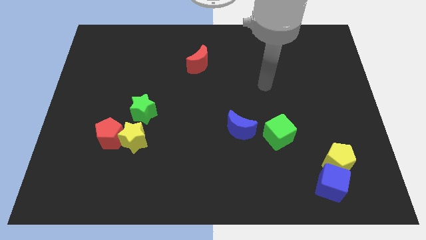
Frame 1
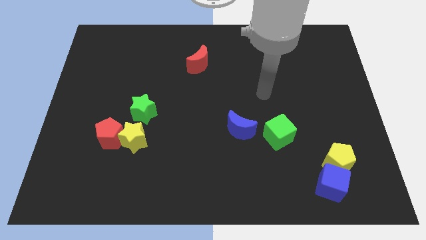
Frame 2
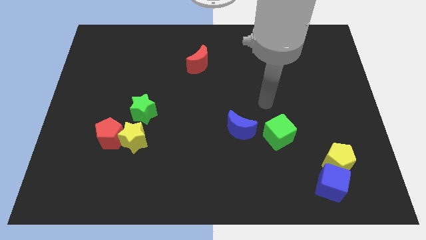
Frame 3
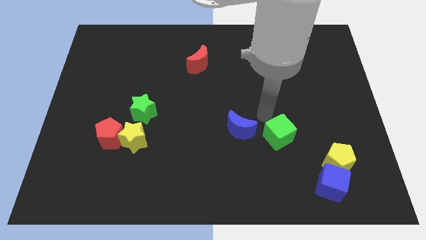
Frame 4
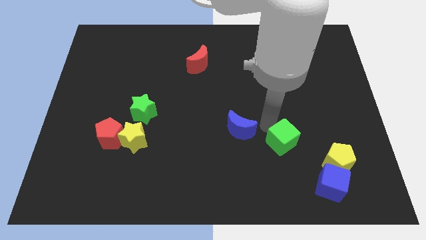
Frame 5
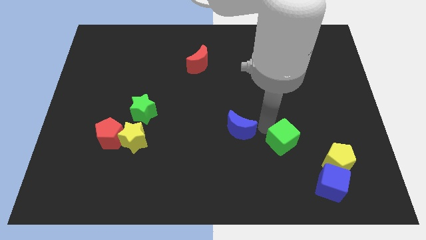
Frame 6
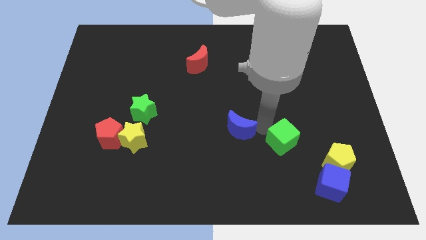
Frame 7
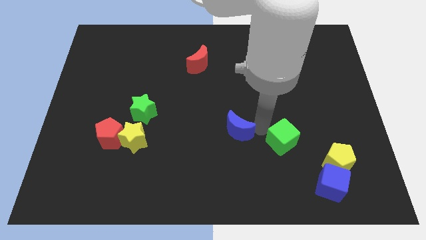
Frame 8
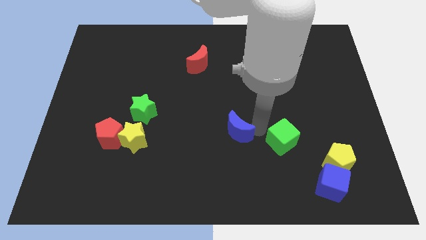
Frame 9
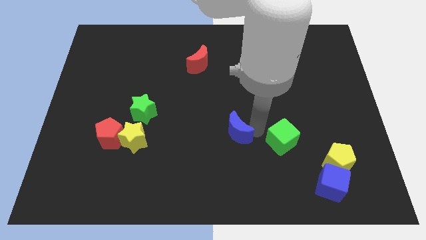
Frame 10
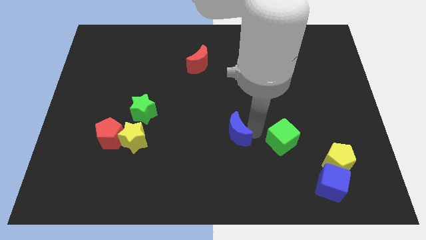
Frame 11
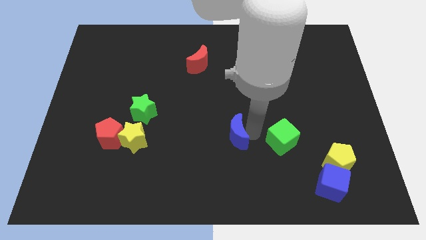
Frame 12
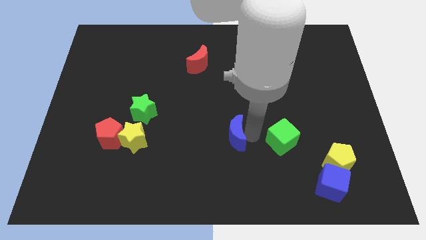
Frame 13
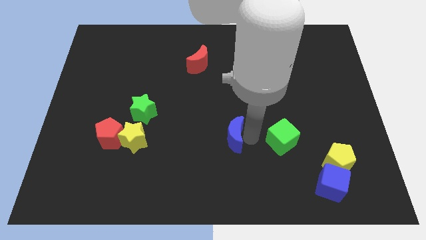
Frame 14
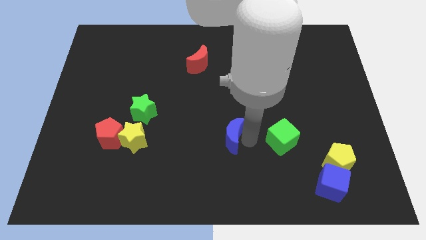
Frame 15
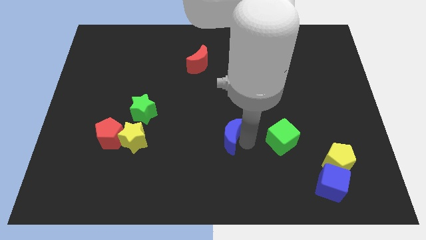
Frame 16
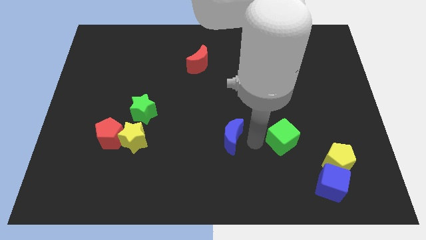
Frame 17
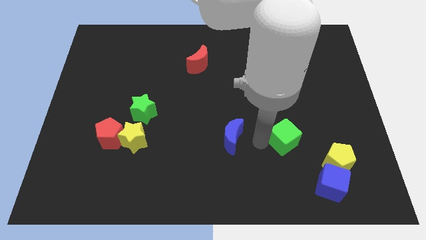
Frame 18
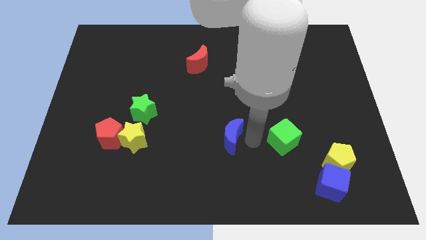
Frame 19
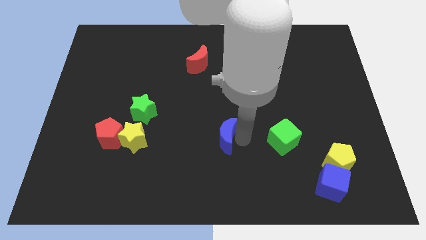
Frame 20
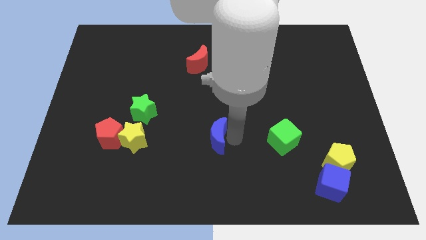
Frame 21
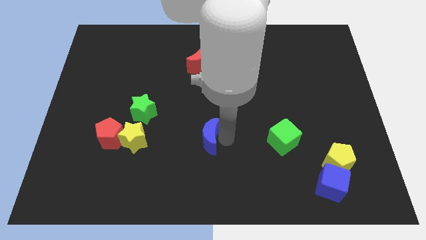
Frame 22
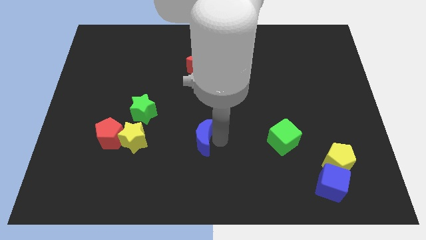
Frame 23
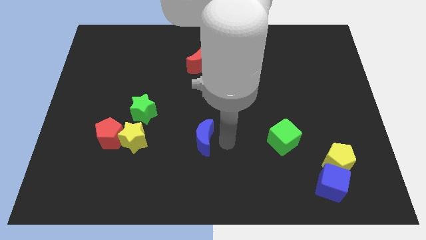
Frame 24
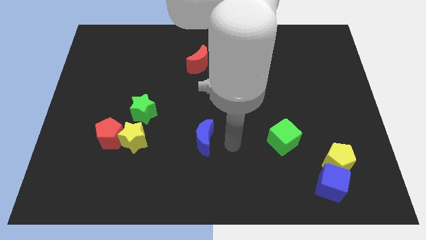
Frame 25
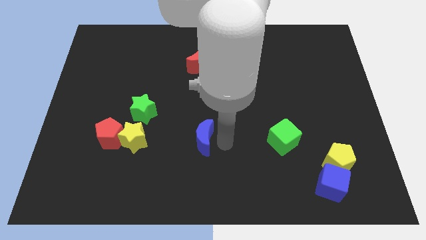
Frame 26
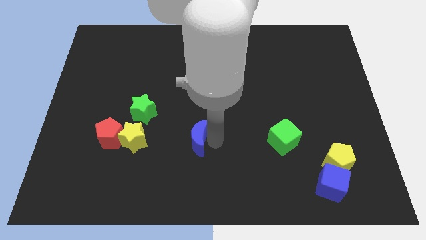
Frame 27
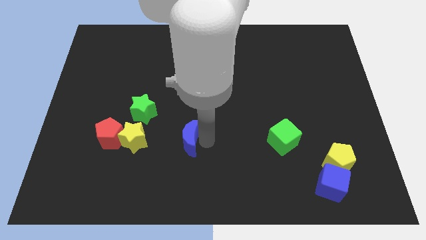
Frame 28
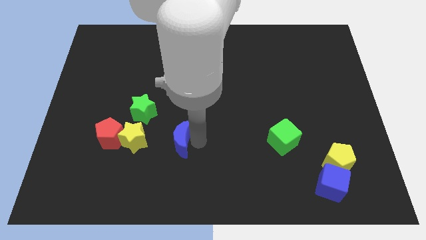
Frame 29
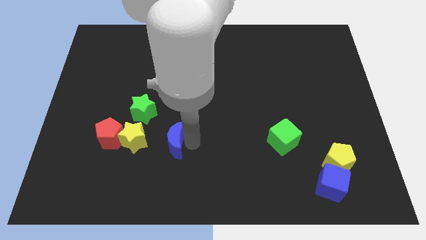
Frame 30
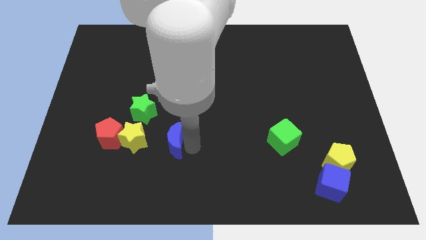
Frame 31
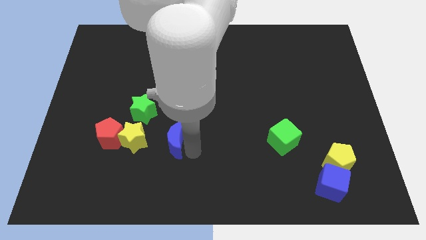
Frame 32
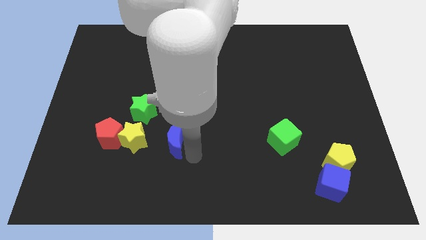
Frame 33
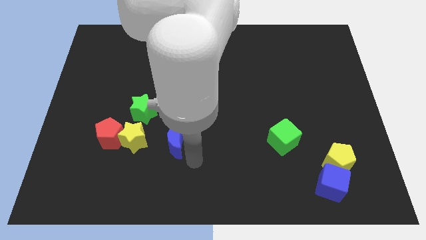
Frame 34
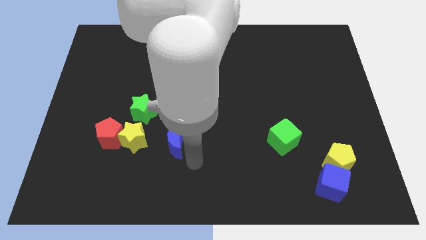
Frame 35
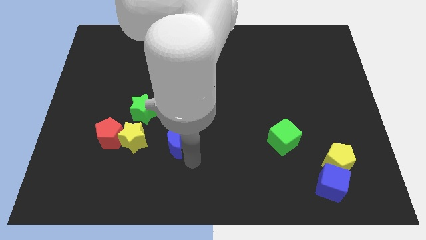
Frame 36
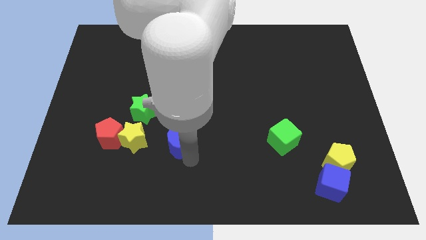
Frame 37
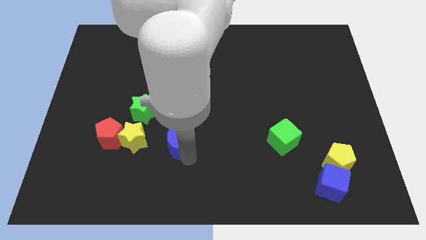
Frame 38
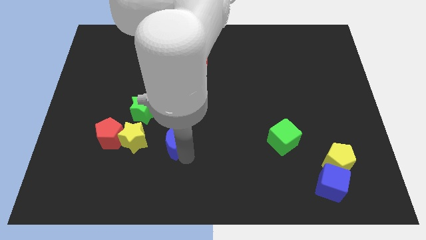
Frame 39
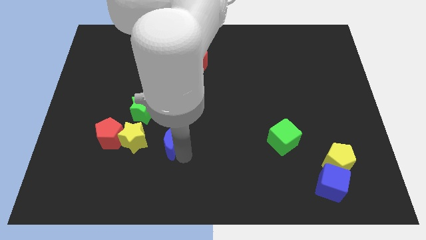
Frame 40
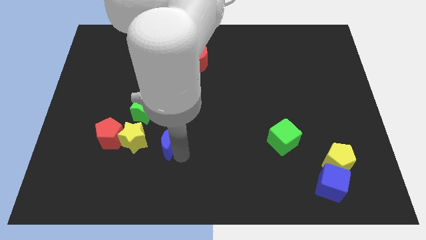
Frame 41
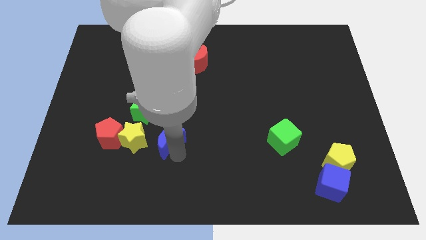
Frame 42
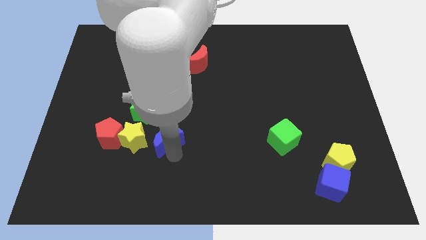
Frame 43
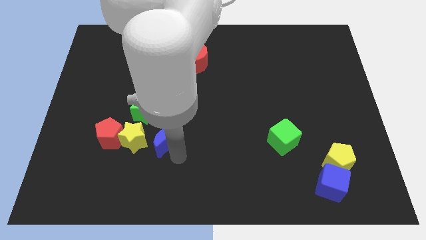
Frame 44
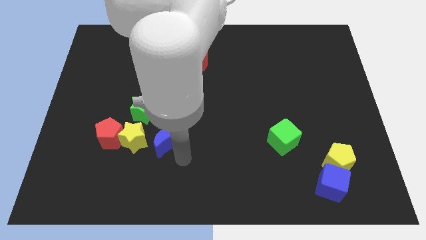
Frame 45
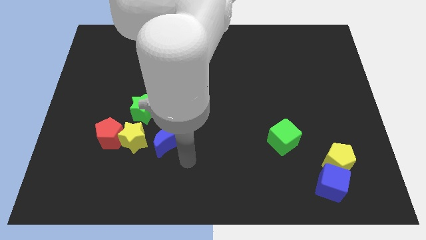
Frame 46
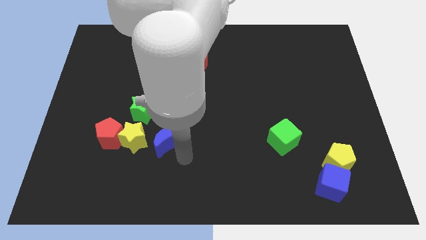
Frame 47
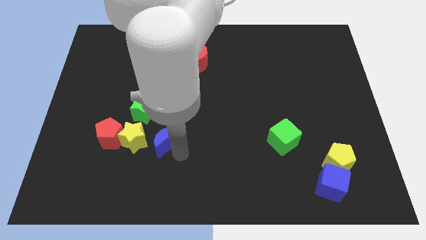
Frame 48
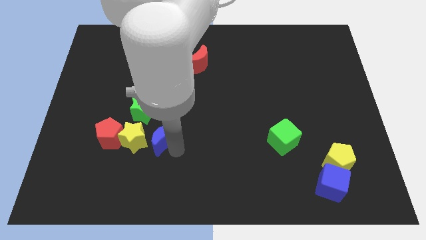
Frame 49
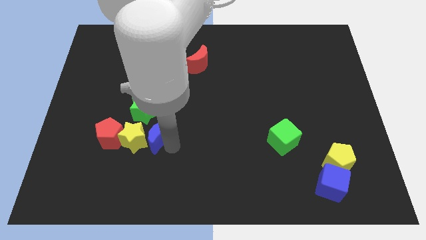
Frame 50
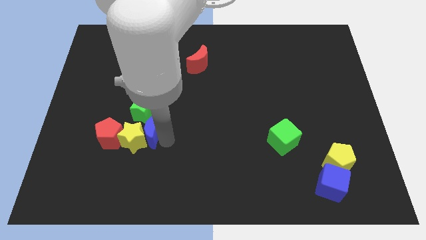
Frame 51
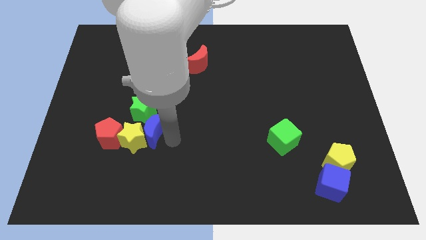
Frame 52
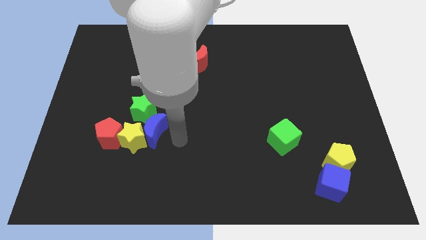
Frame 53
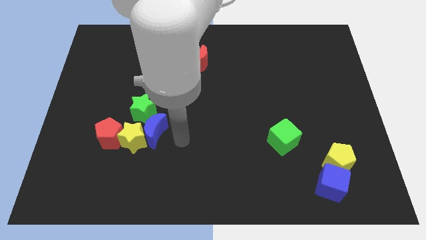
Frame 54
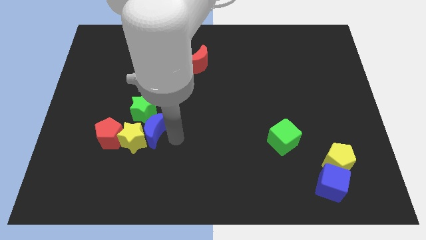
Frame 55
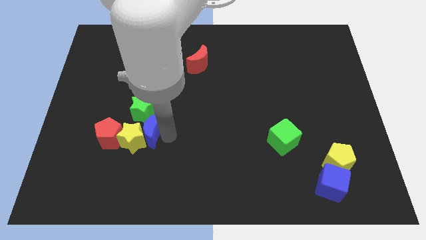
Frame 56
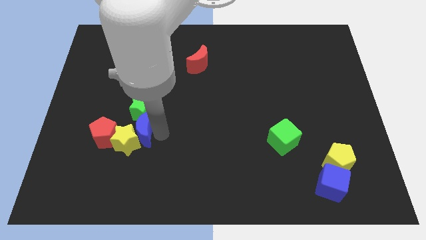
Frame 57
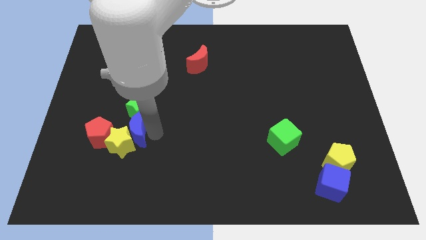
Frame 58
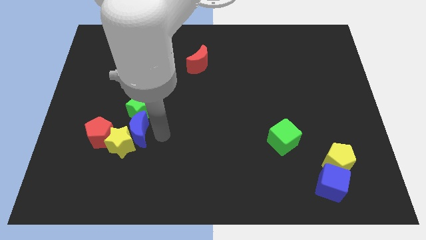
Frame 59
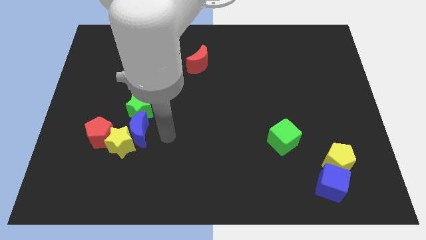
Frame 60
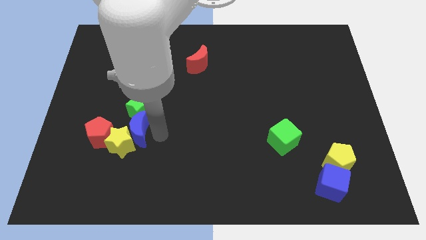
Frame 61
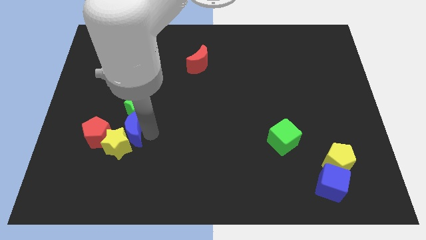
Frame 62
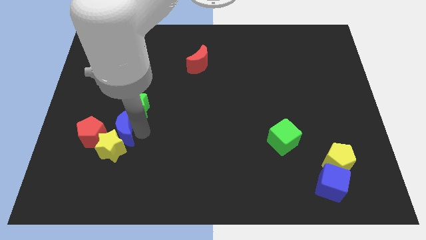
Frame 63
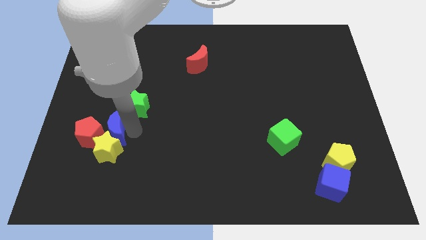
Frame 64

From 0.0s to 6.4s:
push the blue moon to the top left of the yellow star

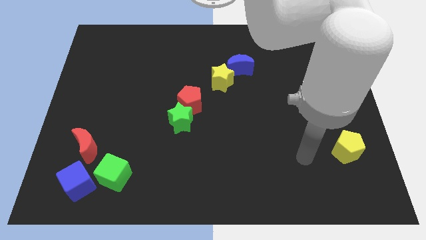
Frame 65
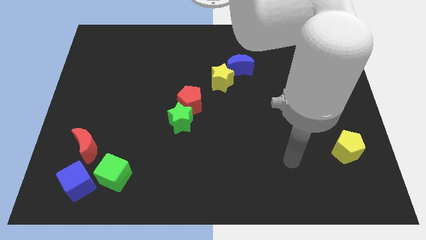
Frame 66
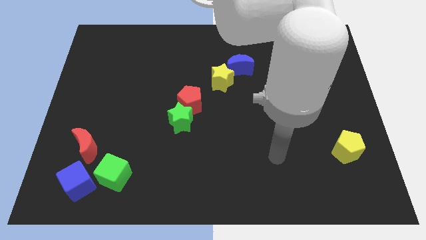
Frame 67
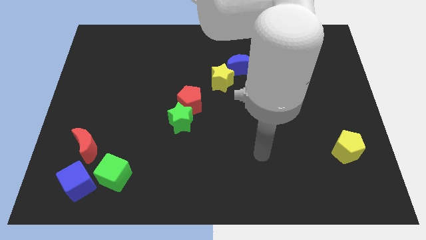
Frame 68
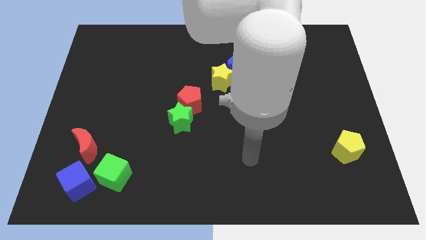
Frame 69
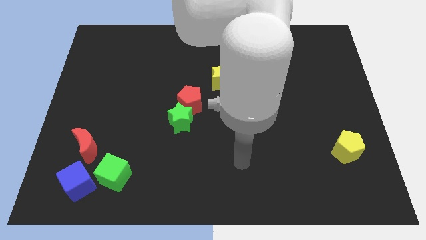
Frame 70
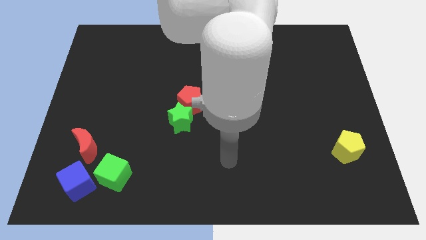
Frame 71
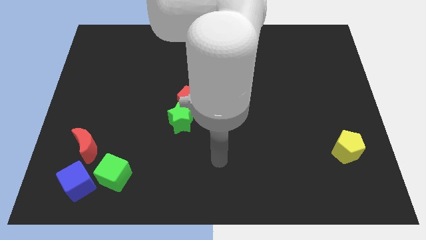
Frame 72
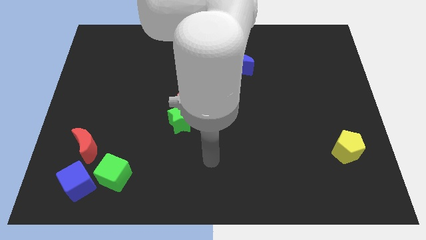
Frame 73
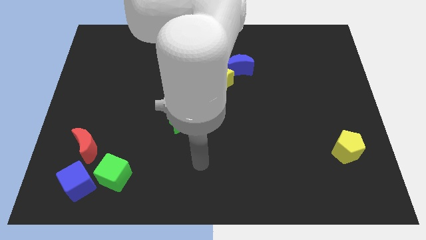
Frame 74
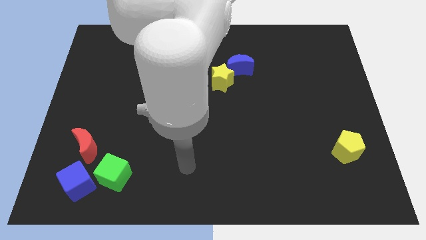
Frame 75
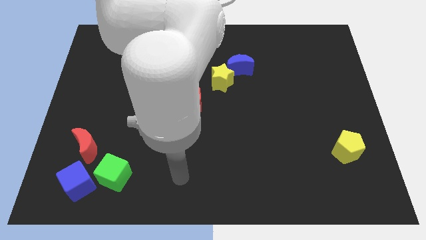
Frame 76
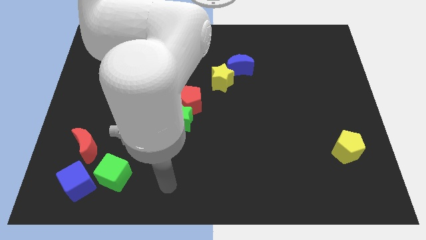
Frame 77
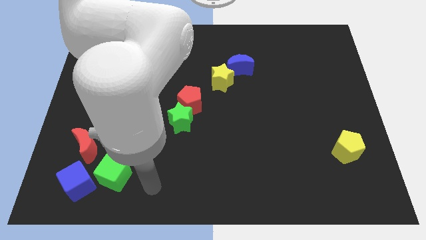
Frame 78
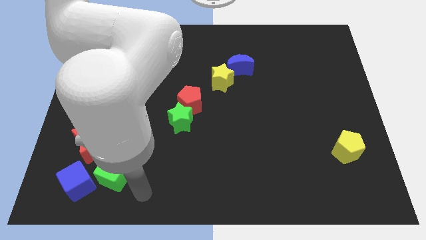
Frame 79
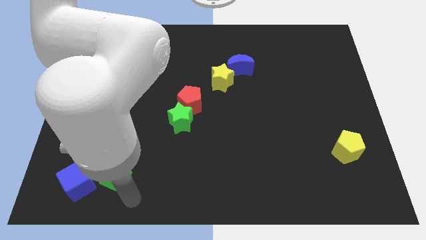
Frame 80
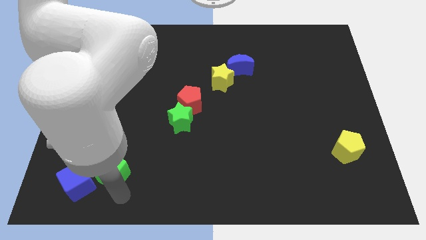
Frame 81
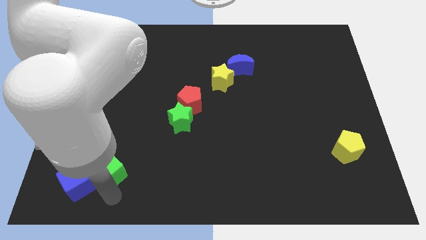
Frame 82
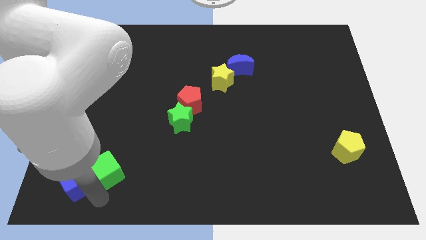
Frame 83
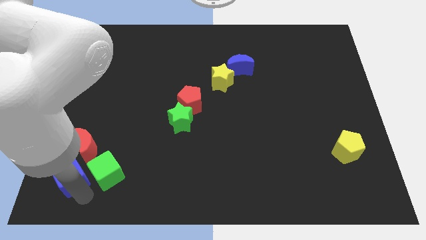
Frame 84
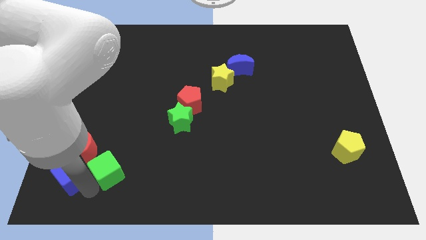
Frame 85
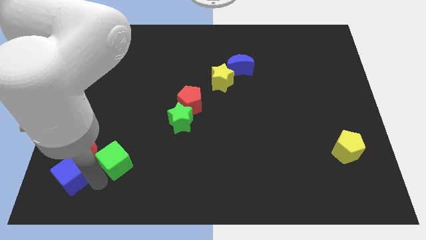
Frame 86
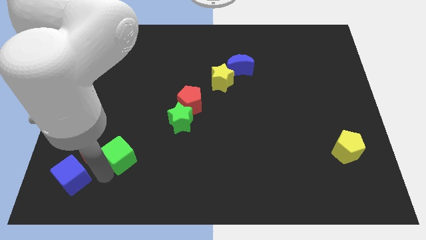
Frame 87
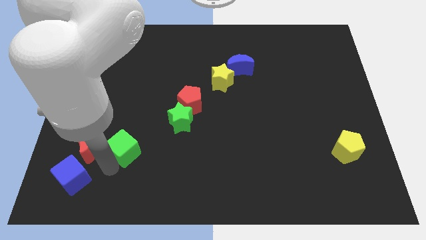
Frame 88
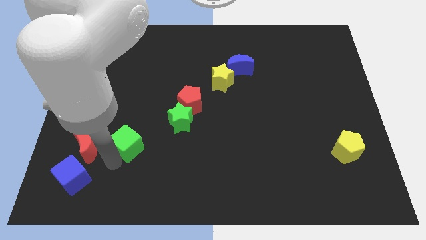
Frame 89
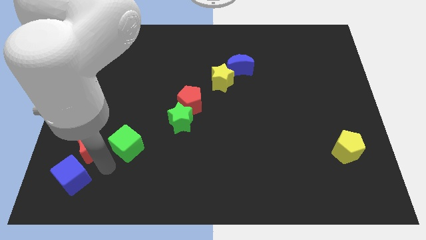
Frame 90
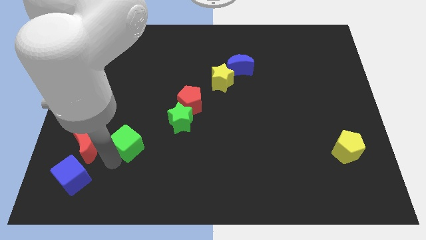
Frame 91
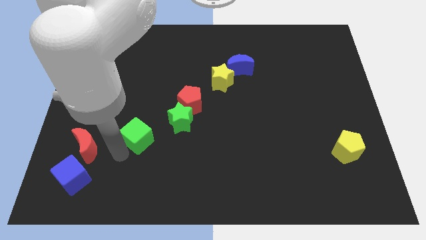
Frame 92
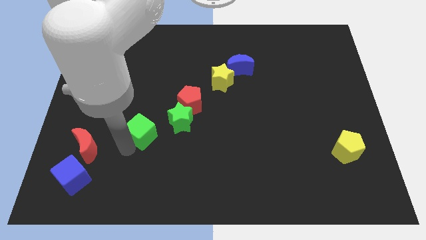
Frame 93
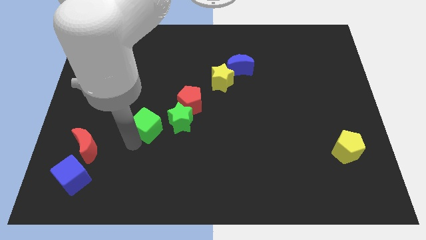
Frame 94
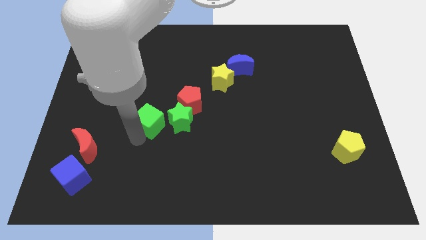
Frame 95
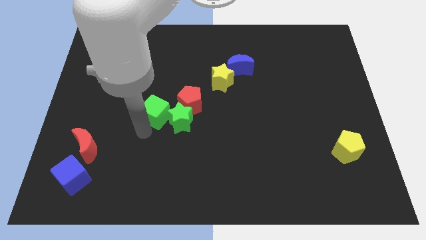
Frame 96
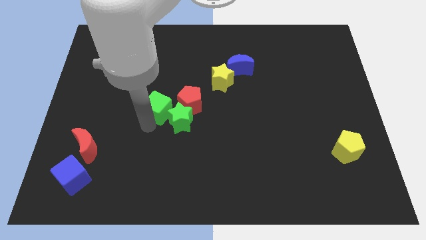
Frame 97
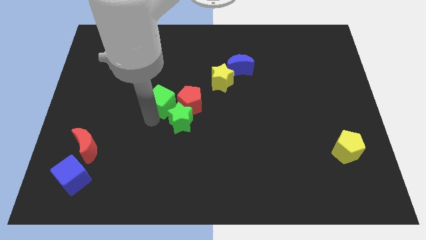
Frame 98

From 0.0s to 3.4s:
move the green cube to the top side of the green star
